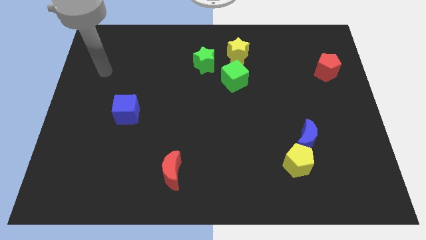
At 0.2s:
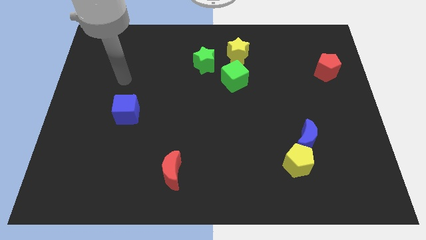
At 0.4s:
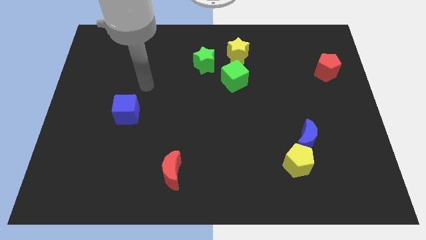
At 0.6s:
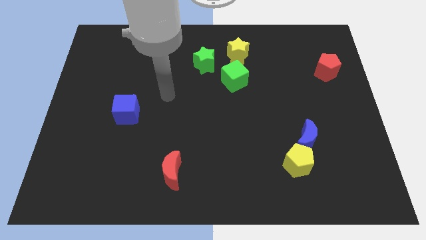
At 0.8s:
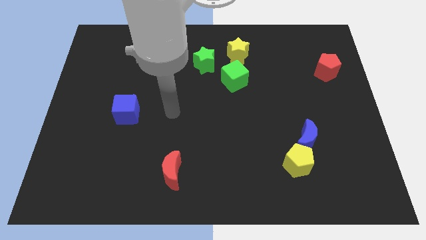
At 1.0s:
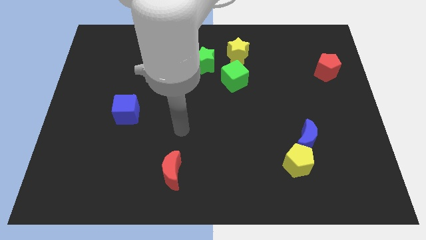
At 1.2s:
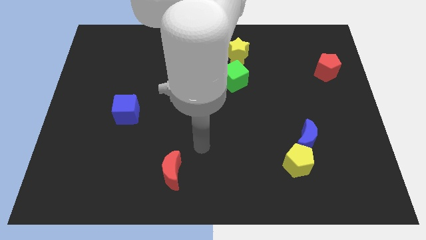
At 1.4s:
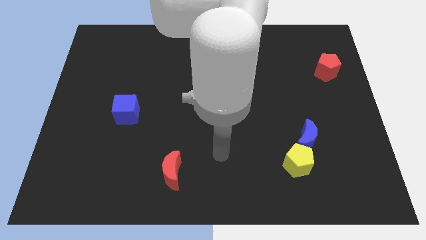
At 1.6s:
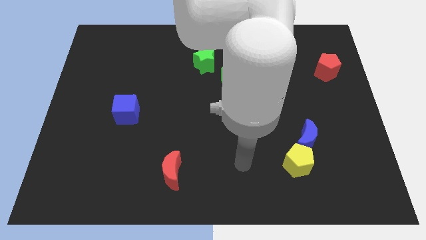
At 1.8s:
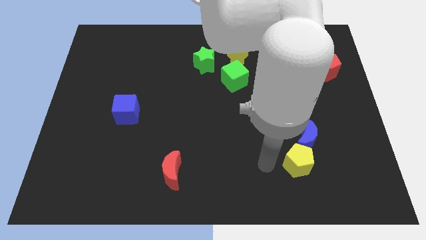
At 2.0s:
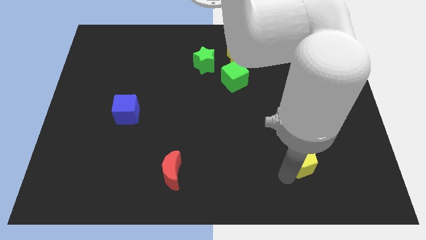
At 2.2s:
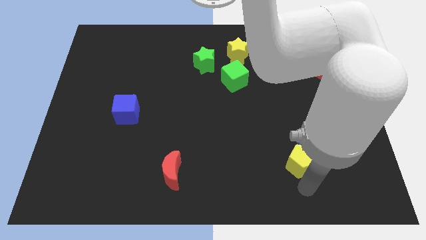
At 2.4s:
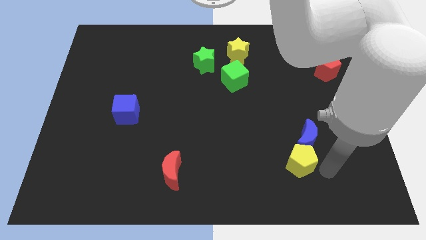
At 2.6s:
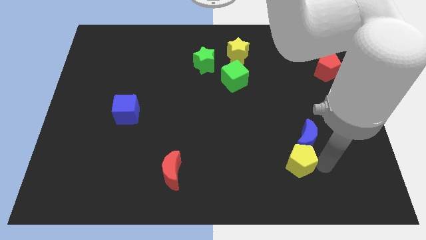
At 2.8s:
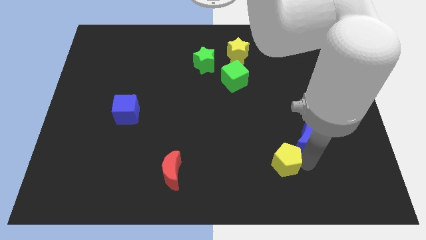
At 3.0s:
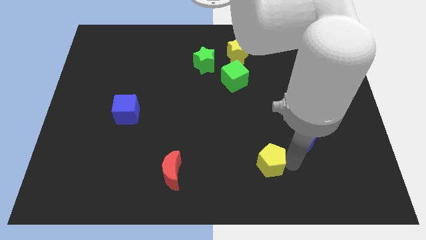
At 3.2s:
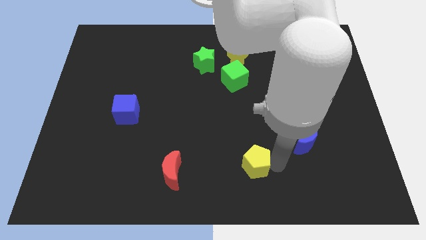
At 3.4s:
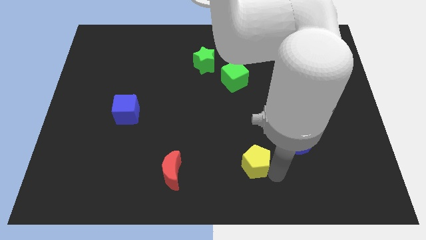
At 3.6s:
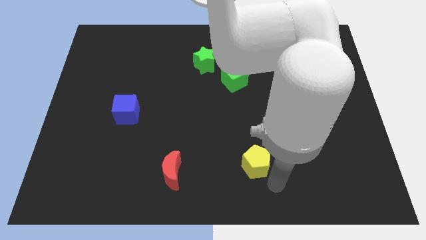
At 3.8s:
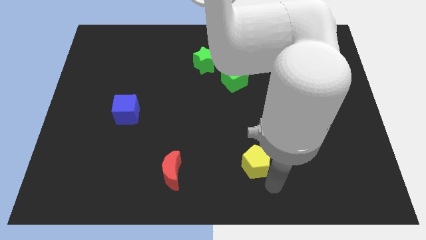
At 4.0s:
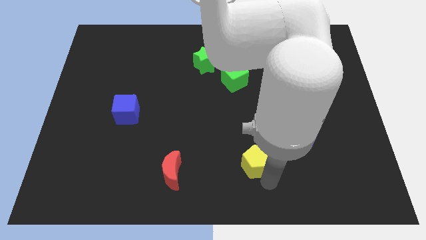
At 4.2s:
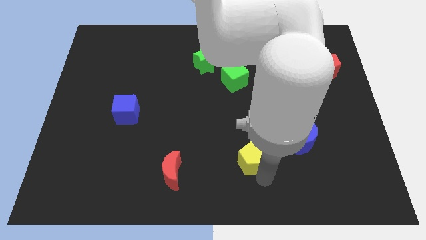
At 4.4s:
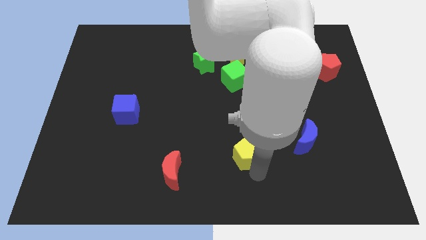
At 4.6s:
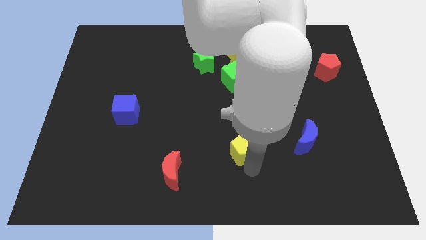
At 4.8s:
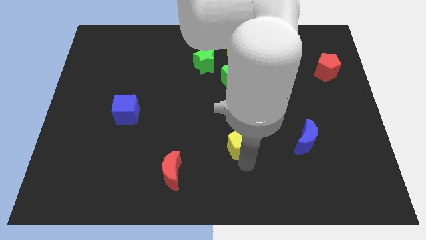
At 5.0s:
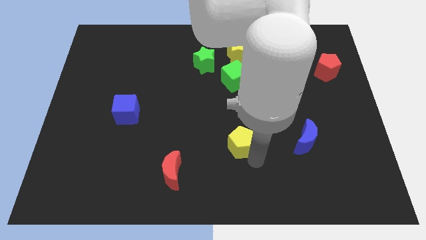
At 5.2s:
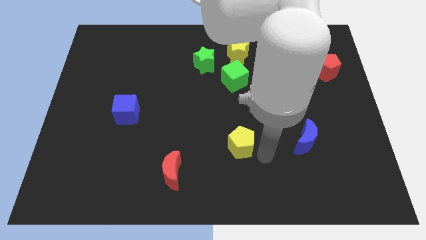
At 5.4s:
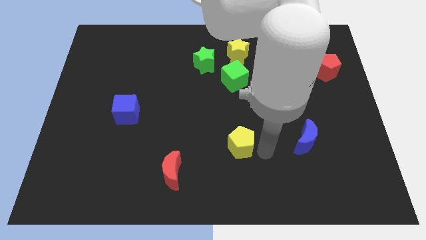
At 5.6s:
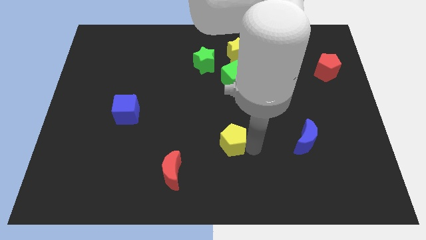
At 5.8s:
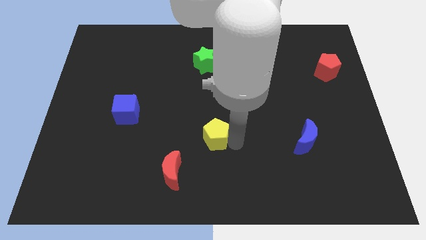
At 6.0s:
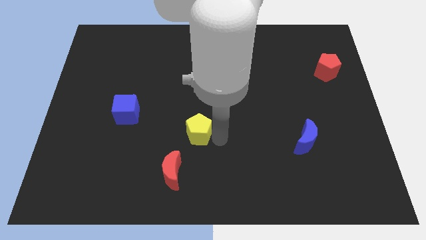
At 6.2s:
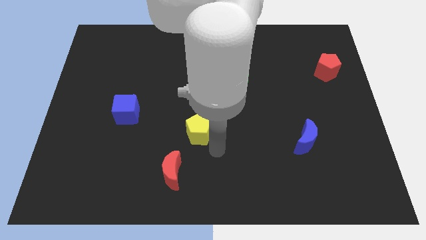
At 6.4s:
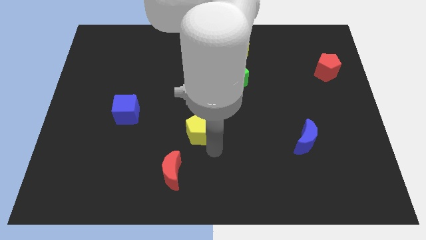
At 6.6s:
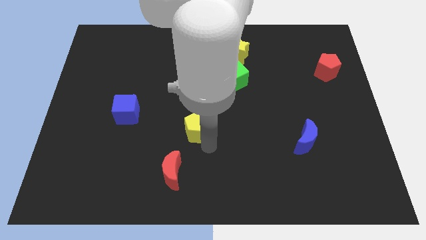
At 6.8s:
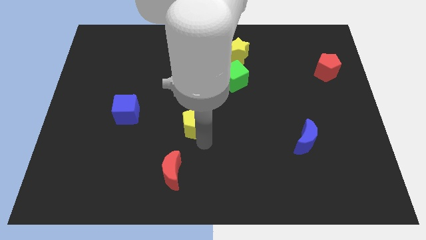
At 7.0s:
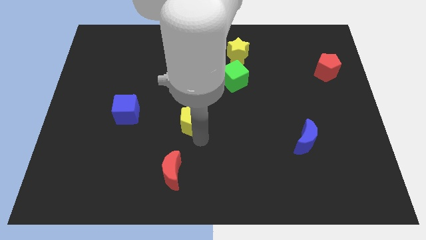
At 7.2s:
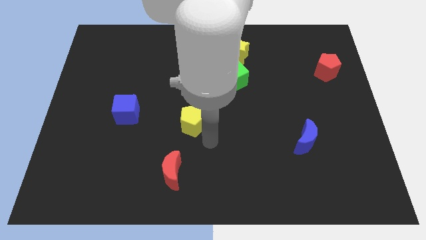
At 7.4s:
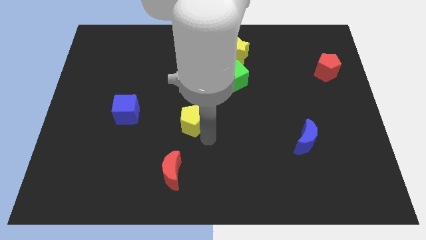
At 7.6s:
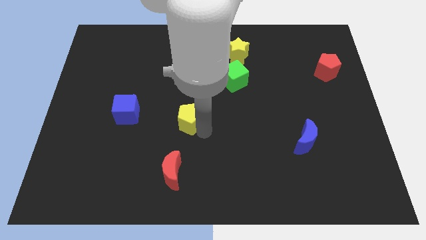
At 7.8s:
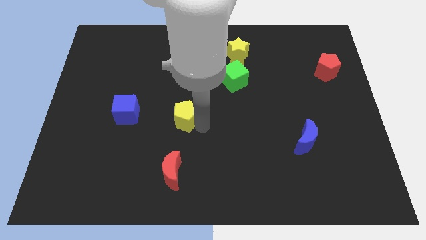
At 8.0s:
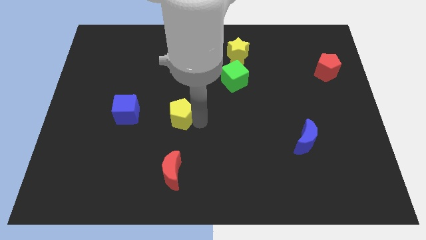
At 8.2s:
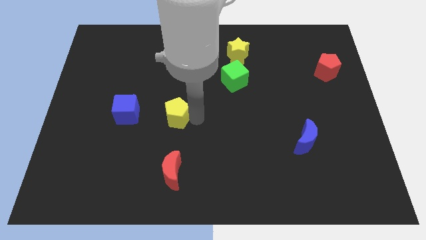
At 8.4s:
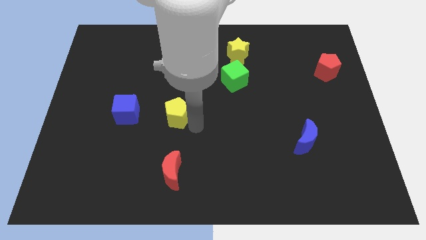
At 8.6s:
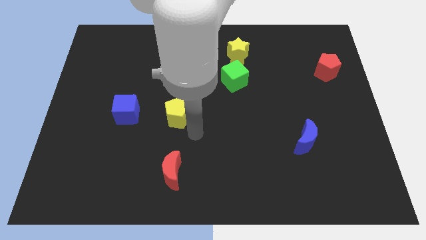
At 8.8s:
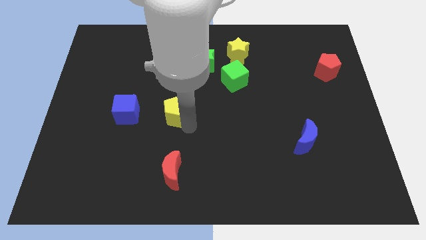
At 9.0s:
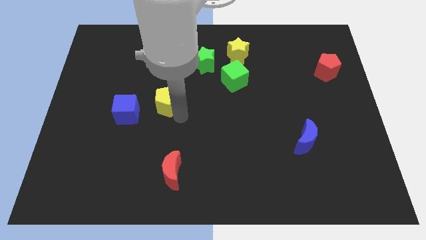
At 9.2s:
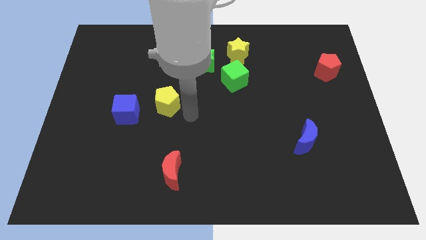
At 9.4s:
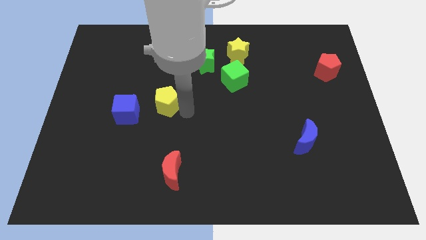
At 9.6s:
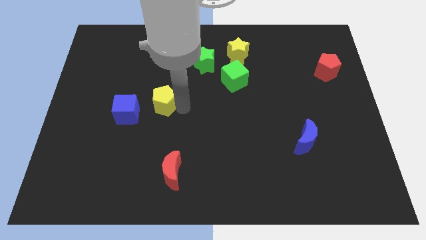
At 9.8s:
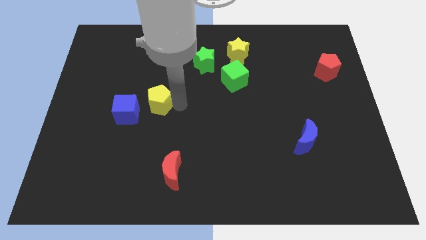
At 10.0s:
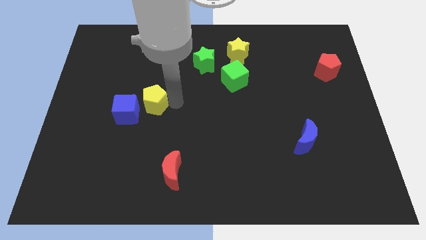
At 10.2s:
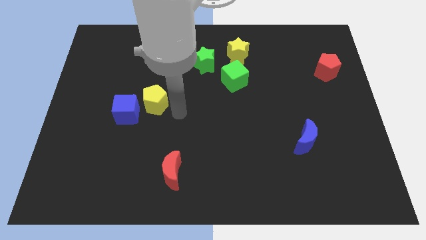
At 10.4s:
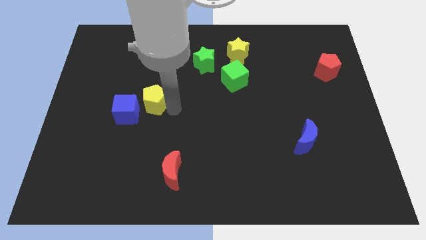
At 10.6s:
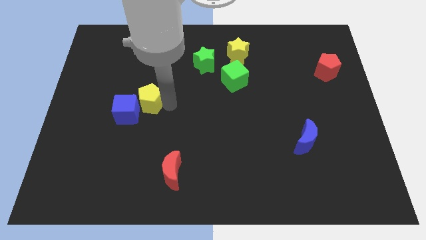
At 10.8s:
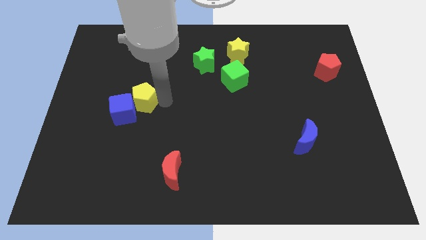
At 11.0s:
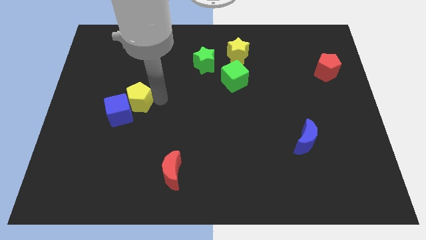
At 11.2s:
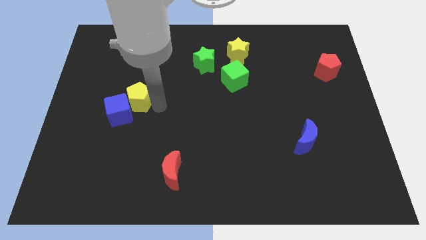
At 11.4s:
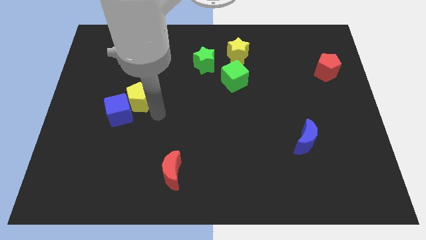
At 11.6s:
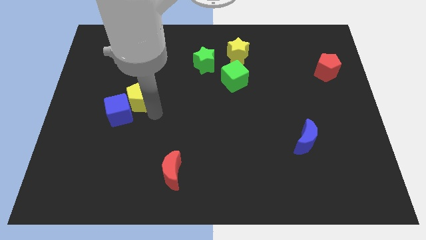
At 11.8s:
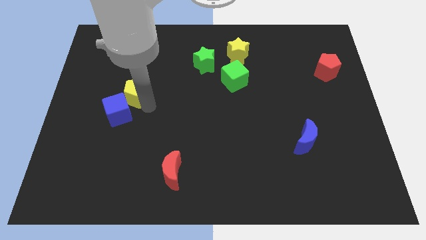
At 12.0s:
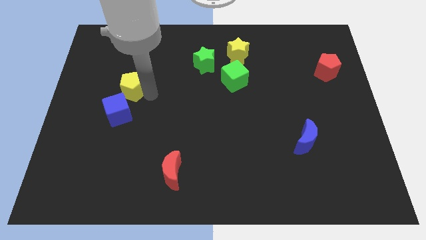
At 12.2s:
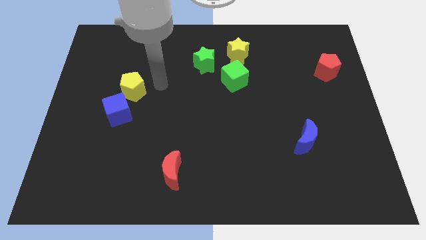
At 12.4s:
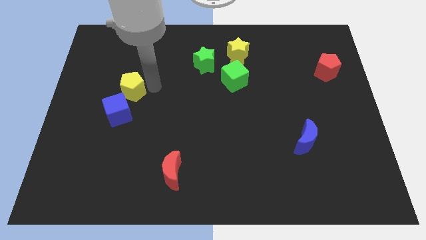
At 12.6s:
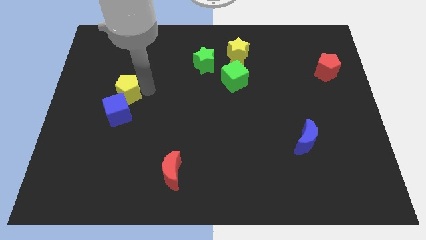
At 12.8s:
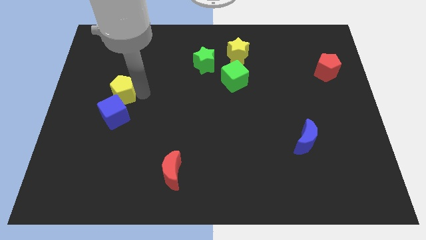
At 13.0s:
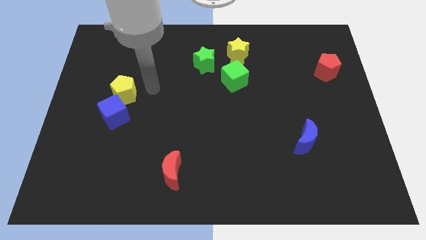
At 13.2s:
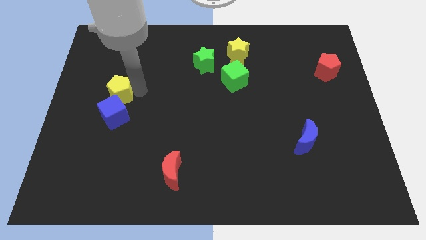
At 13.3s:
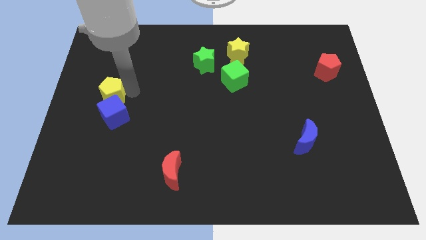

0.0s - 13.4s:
move the yellow pentagon to the top left side of the blue cube

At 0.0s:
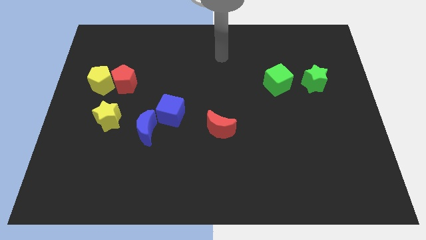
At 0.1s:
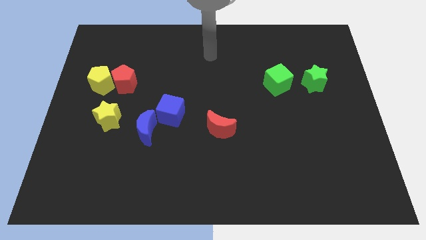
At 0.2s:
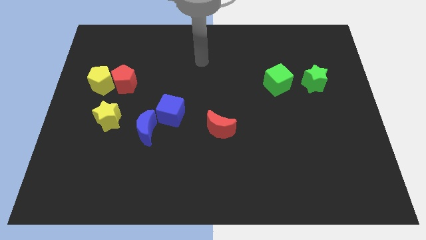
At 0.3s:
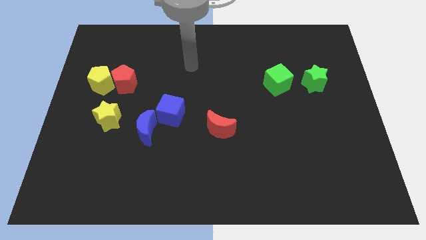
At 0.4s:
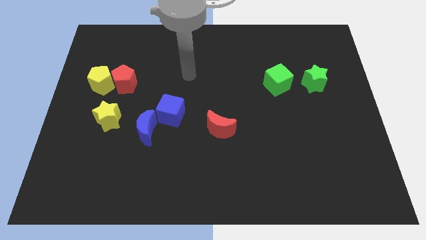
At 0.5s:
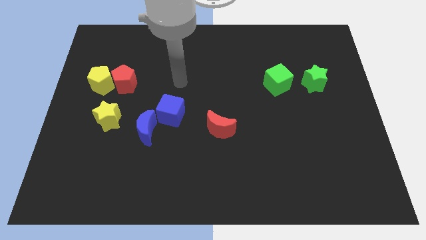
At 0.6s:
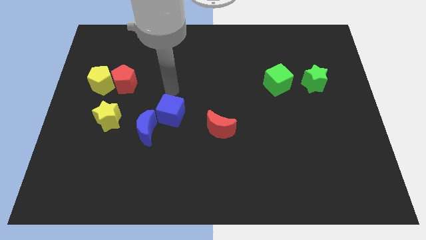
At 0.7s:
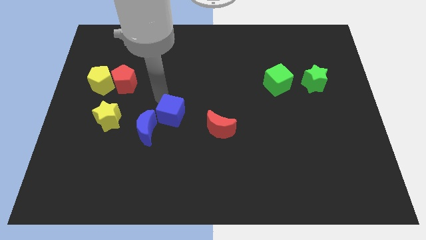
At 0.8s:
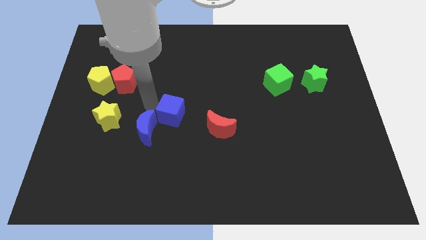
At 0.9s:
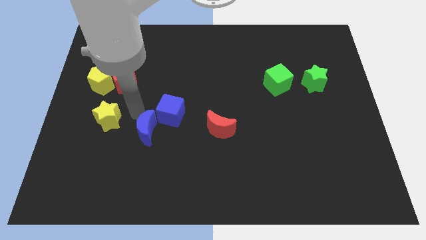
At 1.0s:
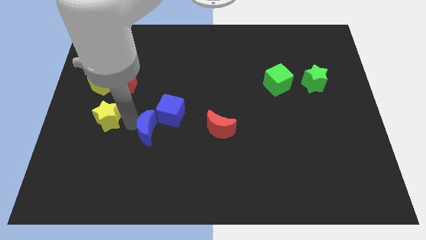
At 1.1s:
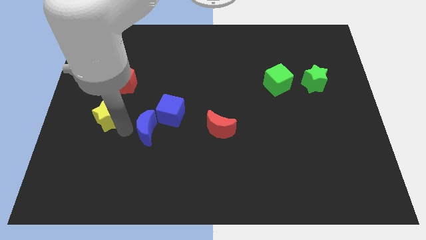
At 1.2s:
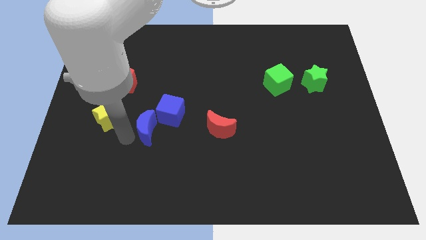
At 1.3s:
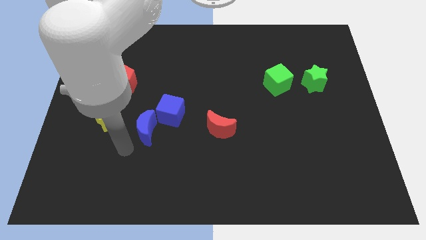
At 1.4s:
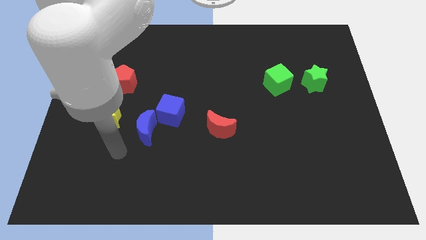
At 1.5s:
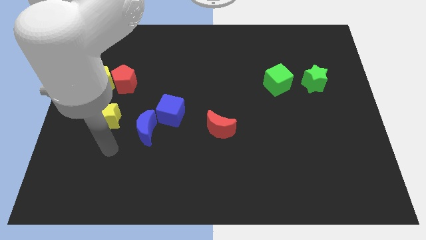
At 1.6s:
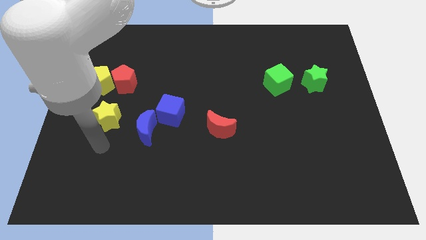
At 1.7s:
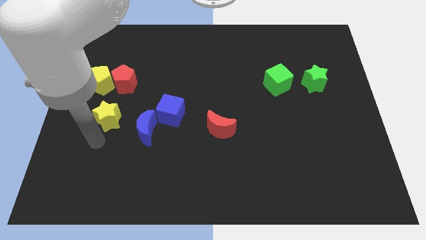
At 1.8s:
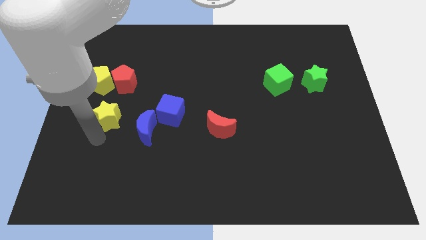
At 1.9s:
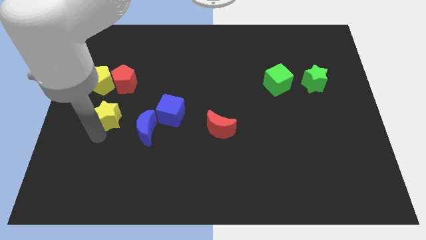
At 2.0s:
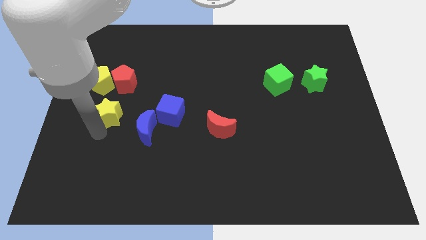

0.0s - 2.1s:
put the yellow star diagonally down and to the right of the yellow pentagon

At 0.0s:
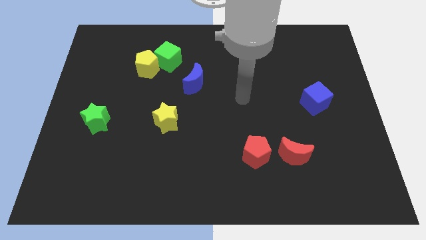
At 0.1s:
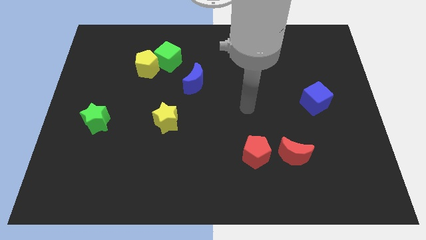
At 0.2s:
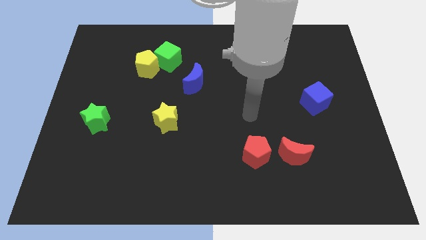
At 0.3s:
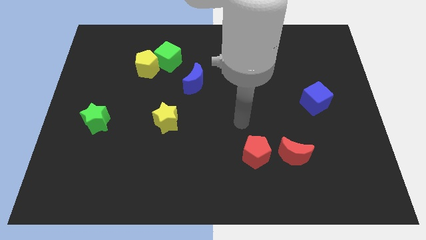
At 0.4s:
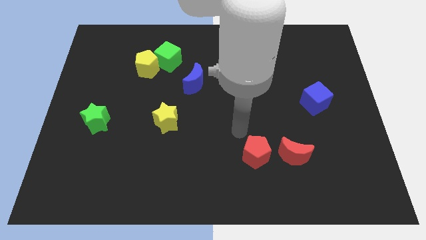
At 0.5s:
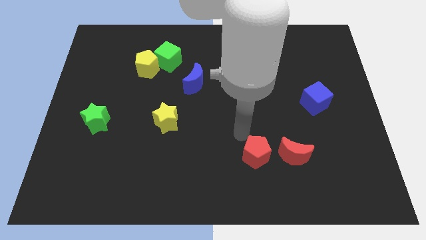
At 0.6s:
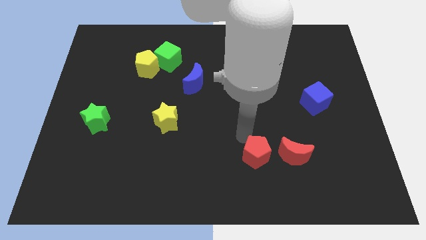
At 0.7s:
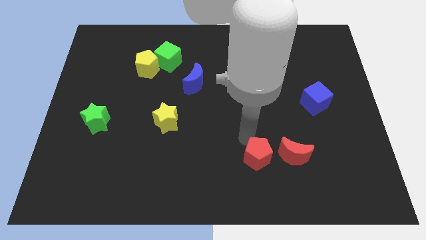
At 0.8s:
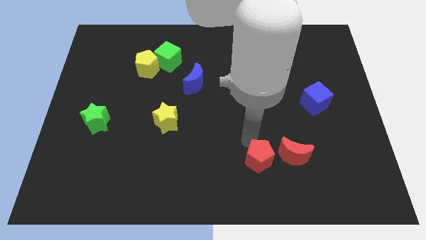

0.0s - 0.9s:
push the red pentagon to the bottom left of the red moon
